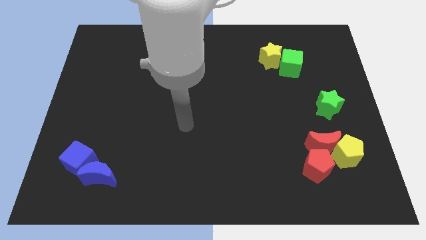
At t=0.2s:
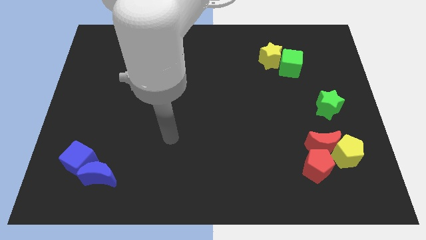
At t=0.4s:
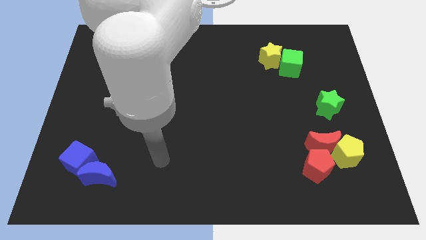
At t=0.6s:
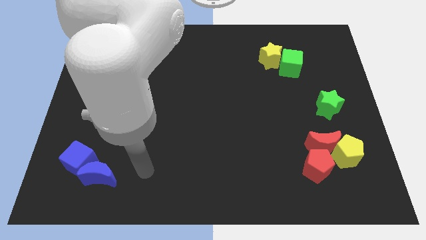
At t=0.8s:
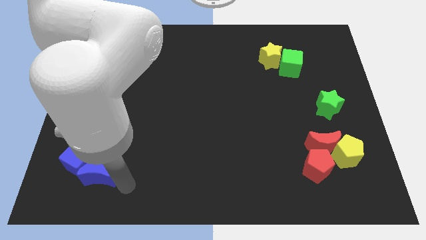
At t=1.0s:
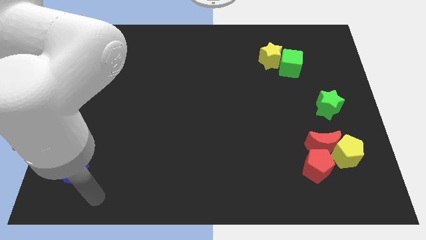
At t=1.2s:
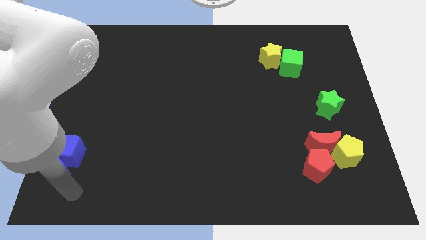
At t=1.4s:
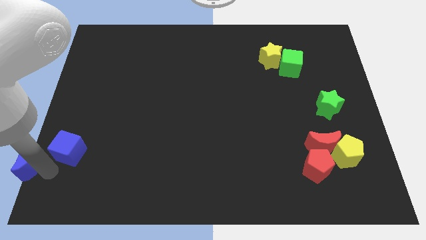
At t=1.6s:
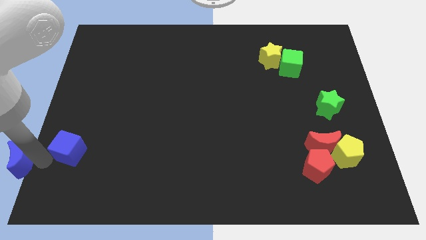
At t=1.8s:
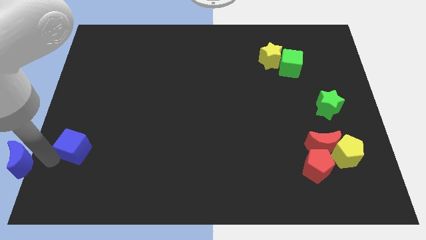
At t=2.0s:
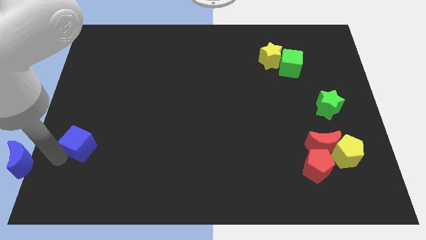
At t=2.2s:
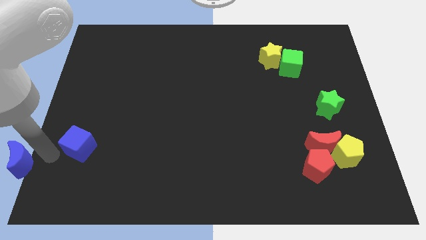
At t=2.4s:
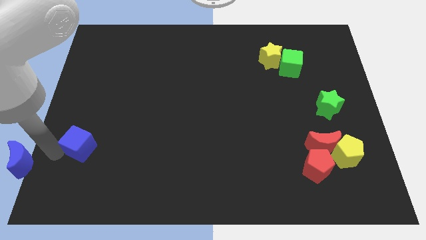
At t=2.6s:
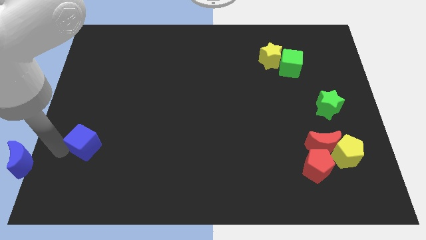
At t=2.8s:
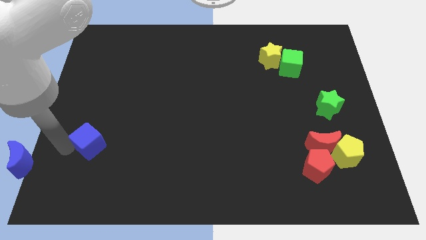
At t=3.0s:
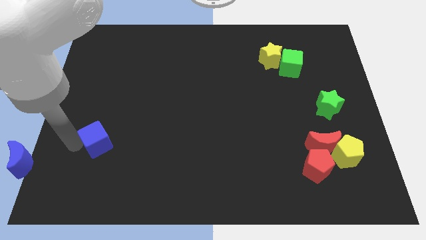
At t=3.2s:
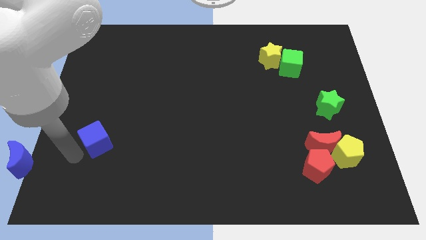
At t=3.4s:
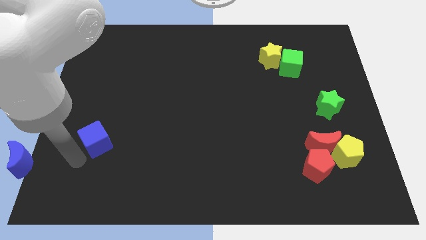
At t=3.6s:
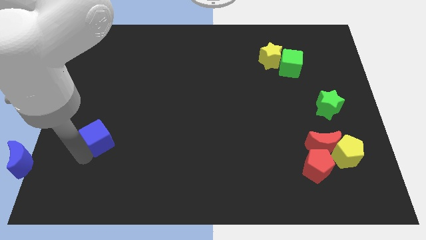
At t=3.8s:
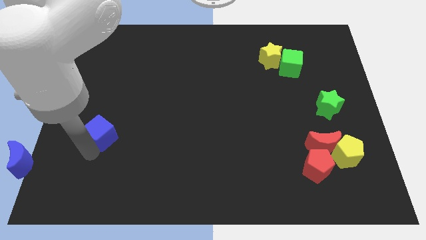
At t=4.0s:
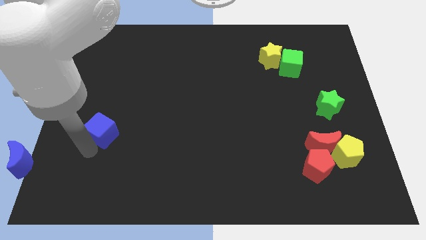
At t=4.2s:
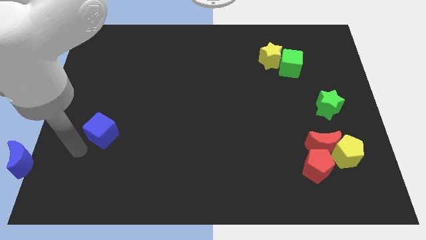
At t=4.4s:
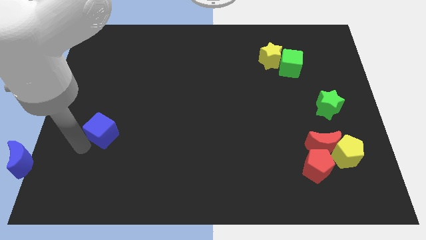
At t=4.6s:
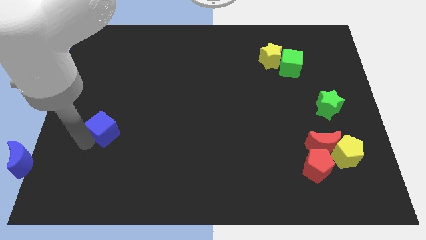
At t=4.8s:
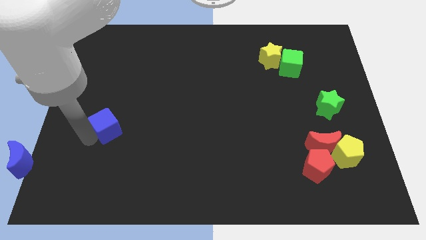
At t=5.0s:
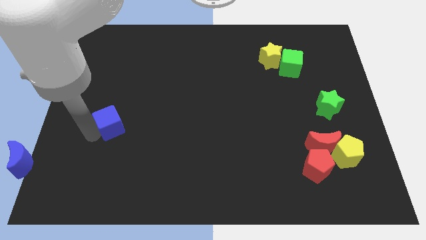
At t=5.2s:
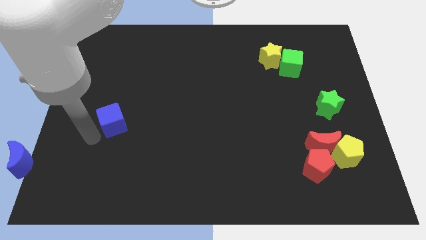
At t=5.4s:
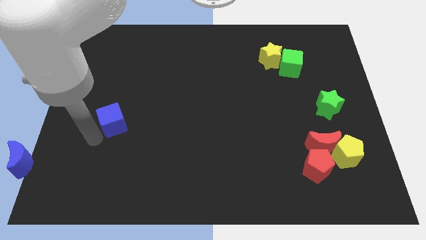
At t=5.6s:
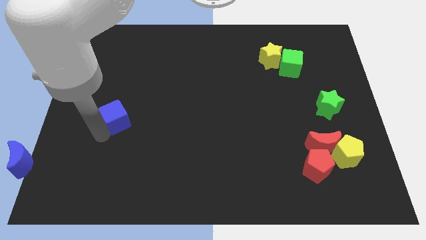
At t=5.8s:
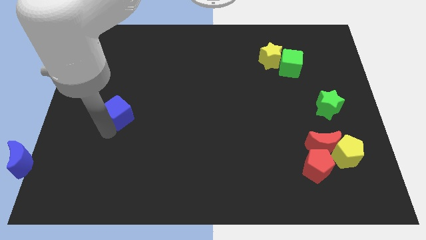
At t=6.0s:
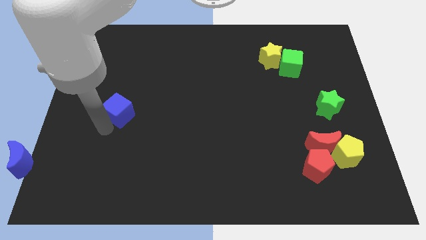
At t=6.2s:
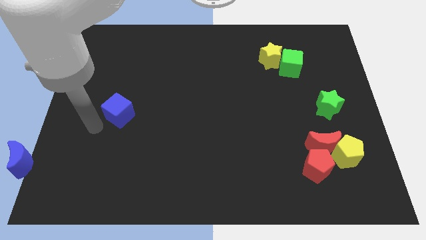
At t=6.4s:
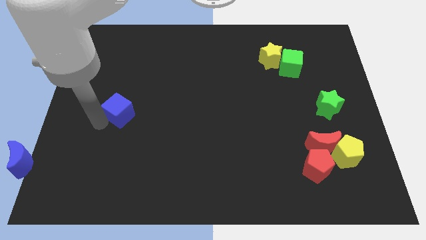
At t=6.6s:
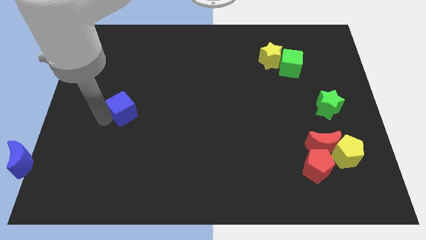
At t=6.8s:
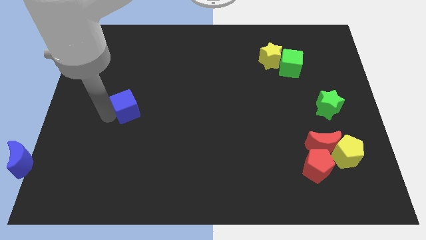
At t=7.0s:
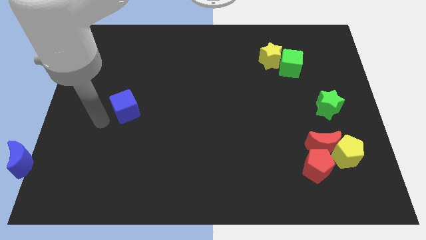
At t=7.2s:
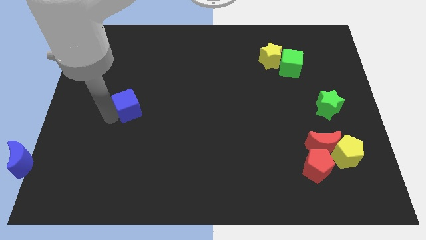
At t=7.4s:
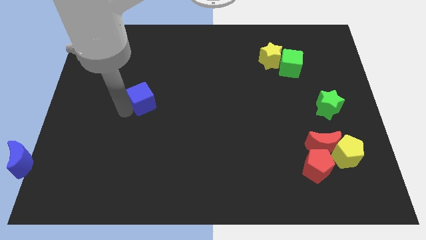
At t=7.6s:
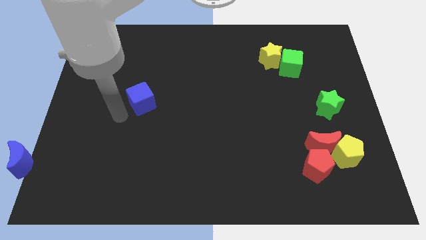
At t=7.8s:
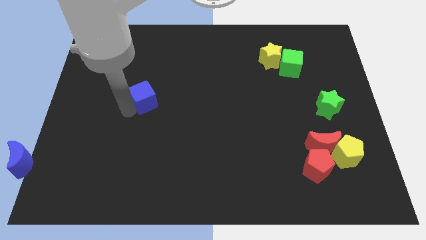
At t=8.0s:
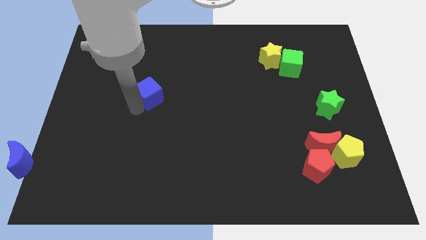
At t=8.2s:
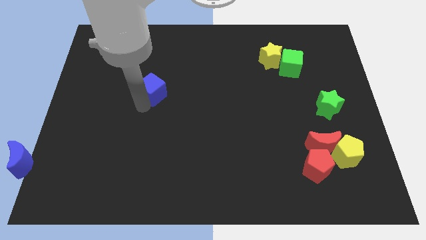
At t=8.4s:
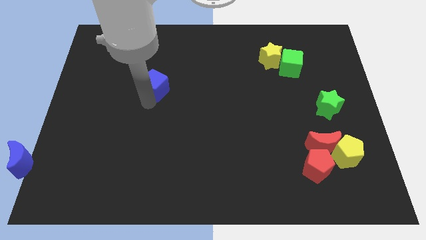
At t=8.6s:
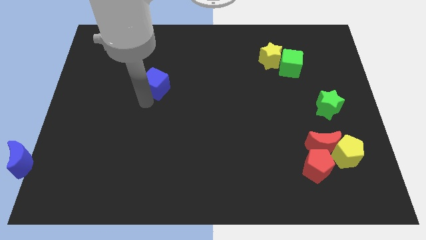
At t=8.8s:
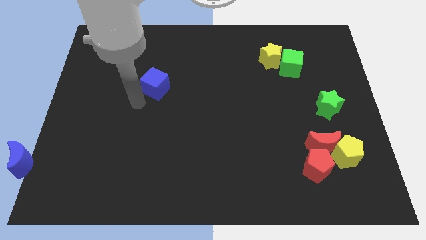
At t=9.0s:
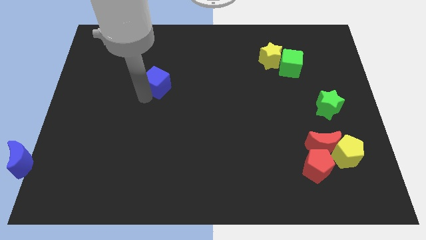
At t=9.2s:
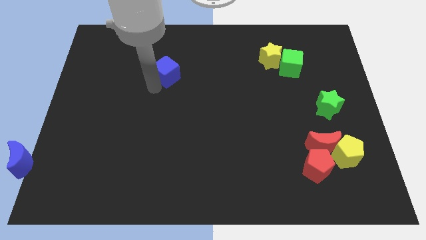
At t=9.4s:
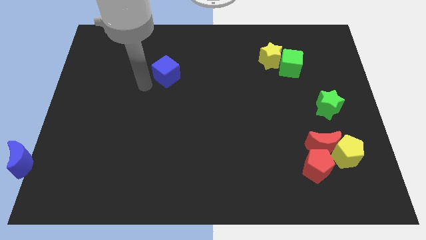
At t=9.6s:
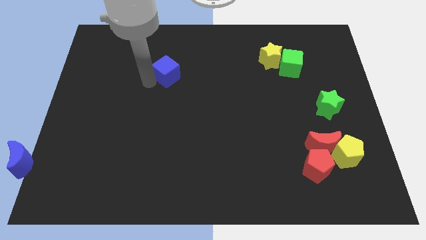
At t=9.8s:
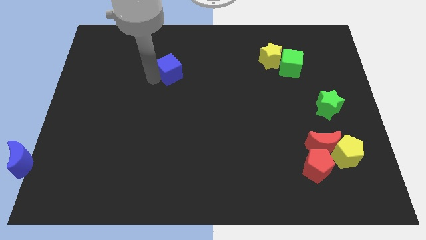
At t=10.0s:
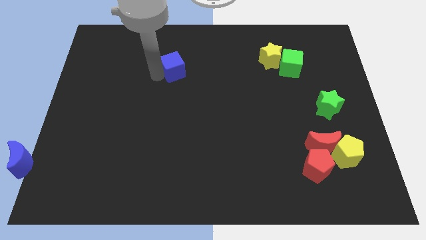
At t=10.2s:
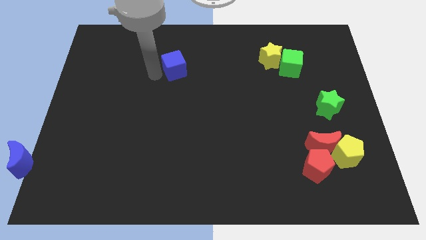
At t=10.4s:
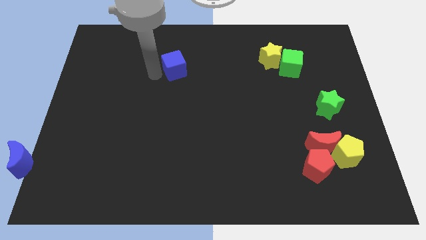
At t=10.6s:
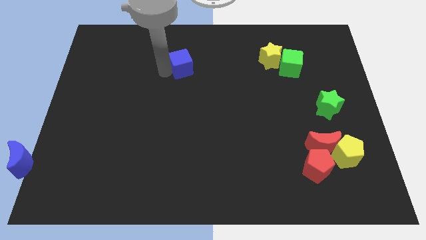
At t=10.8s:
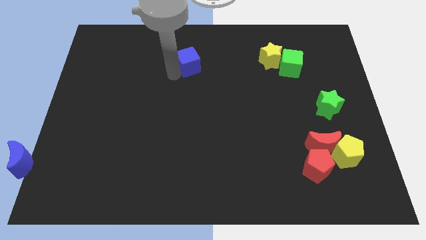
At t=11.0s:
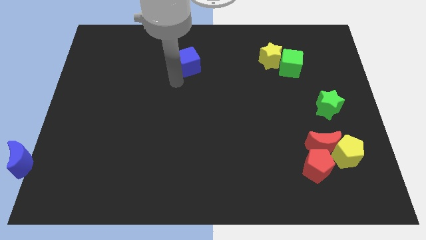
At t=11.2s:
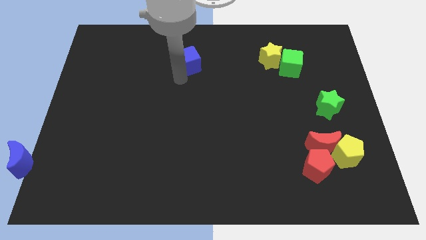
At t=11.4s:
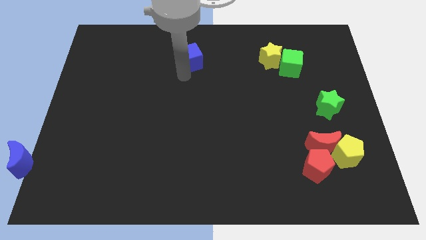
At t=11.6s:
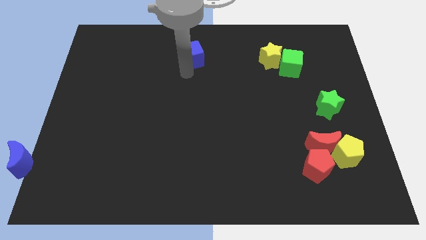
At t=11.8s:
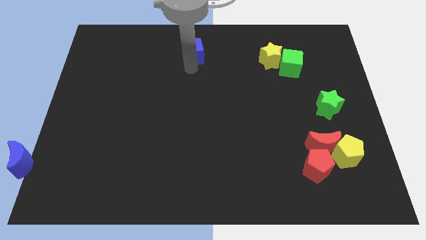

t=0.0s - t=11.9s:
move the blue cube to the top side
